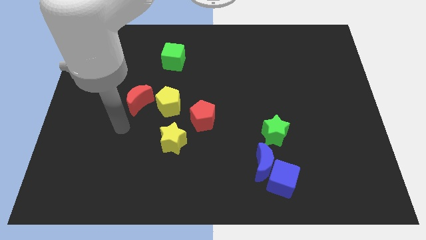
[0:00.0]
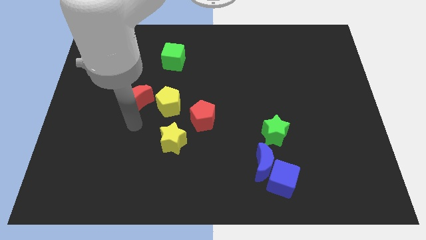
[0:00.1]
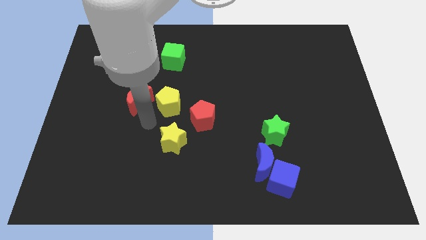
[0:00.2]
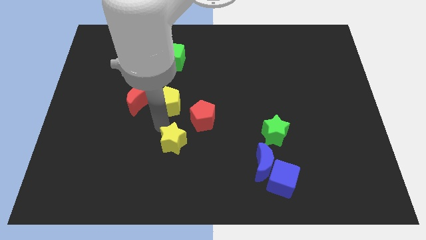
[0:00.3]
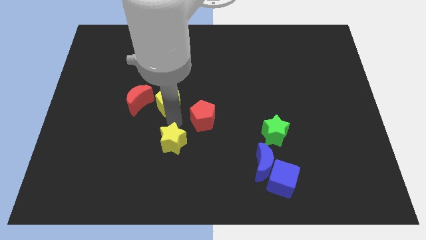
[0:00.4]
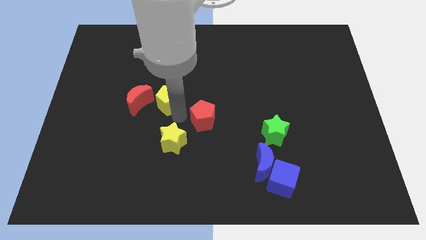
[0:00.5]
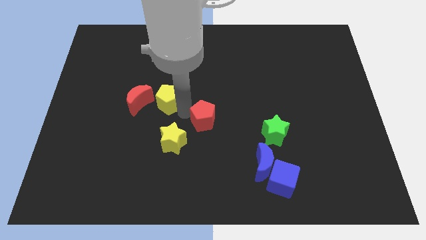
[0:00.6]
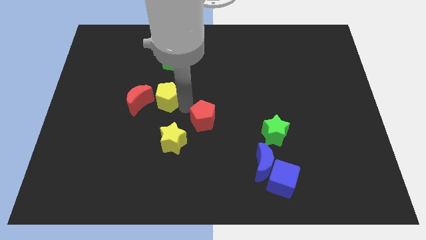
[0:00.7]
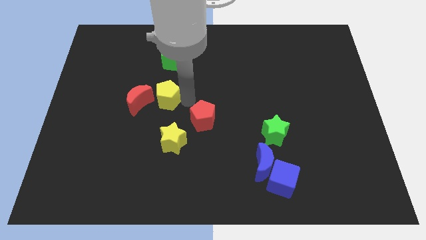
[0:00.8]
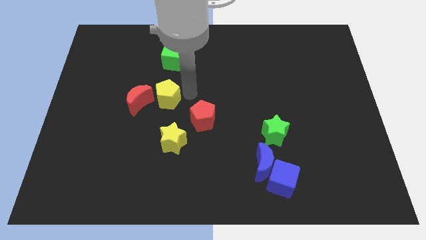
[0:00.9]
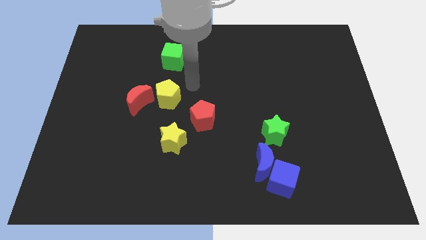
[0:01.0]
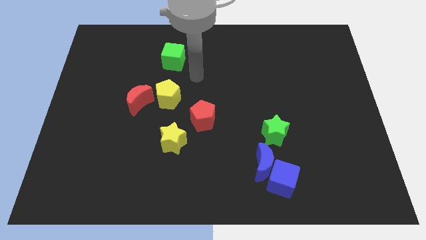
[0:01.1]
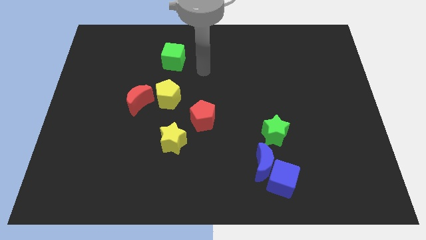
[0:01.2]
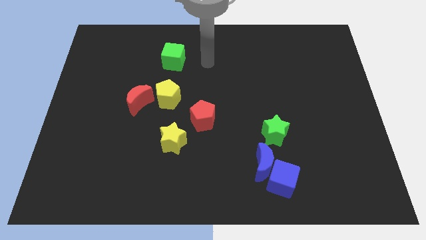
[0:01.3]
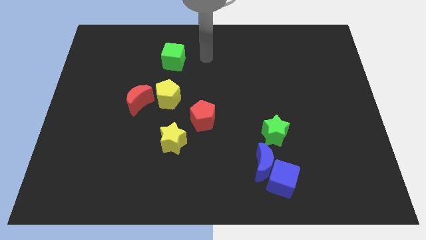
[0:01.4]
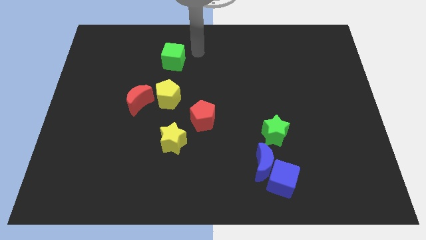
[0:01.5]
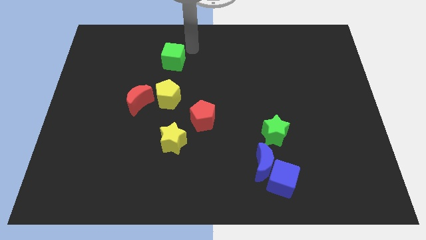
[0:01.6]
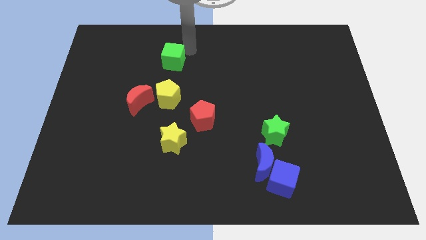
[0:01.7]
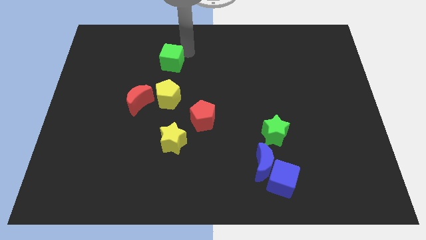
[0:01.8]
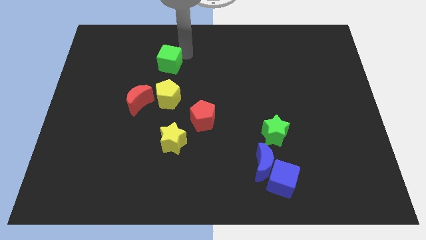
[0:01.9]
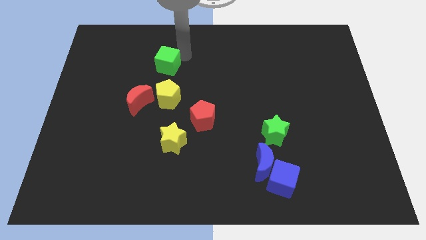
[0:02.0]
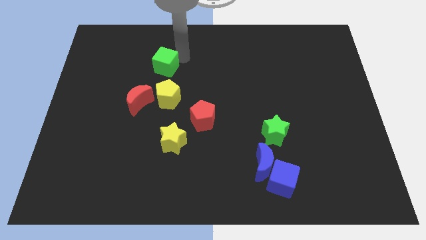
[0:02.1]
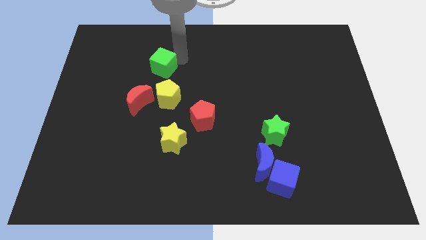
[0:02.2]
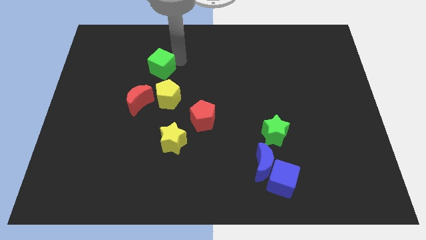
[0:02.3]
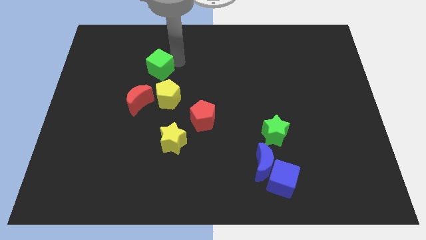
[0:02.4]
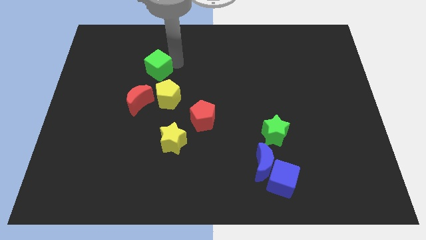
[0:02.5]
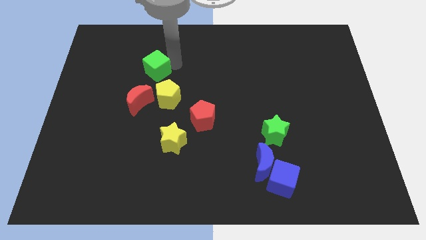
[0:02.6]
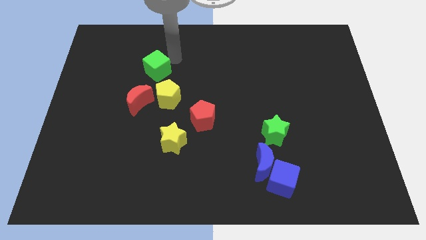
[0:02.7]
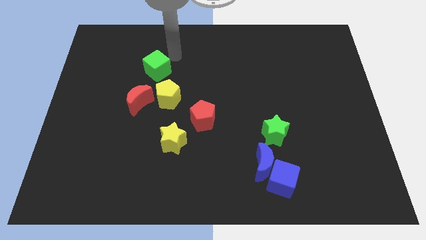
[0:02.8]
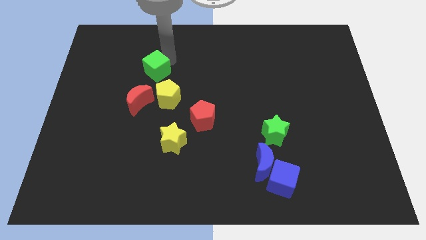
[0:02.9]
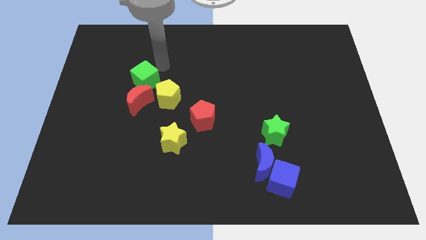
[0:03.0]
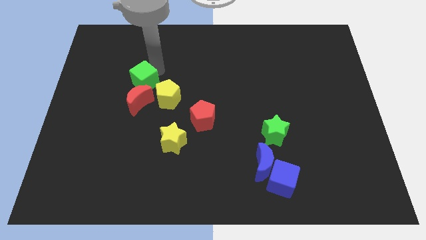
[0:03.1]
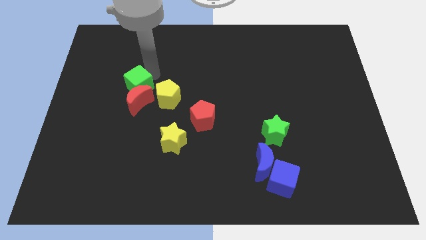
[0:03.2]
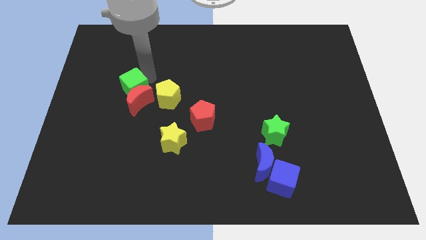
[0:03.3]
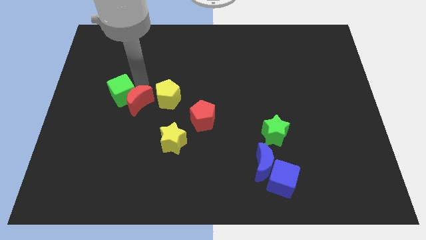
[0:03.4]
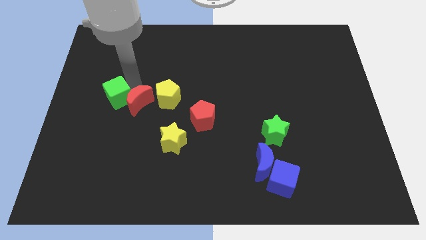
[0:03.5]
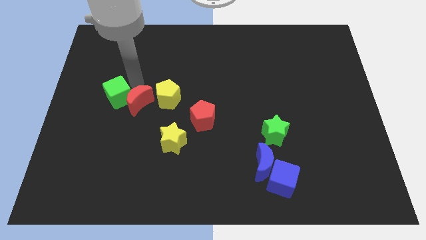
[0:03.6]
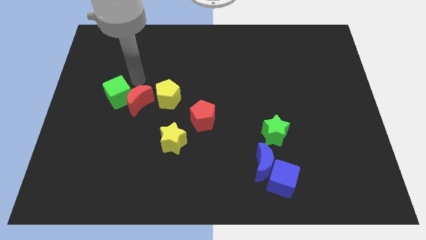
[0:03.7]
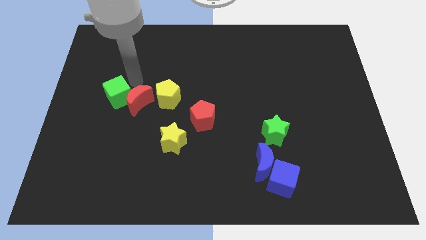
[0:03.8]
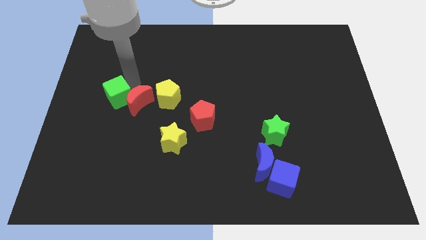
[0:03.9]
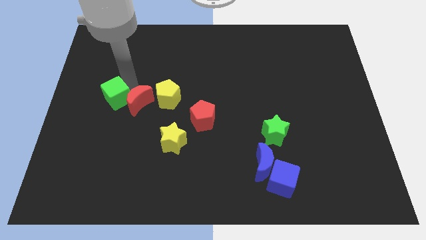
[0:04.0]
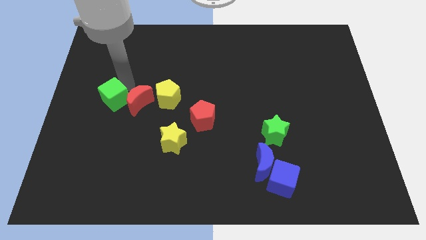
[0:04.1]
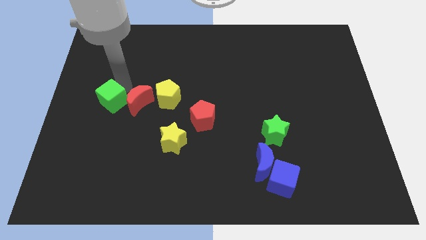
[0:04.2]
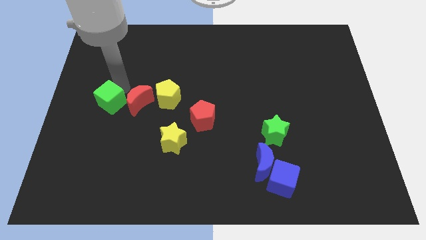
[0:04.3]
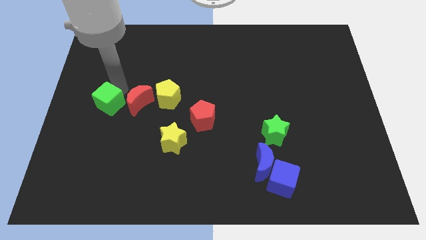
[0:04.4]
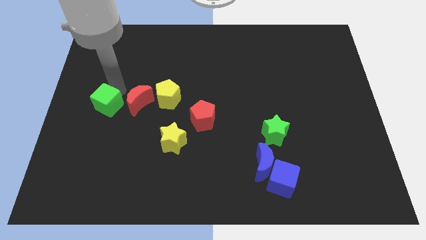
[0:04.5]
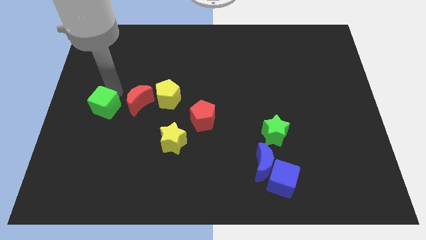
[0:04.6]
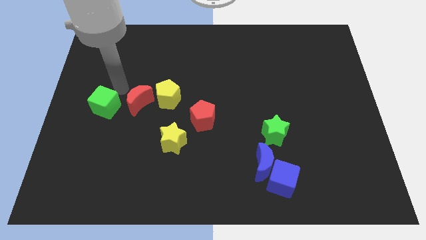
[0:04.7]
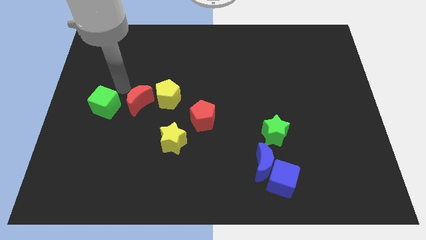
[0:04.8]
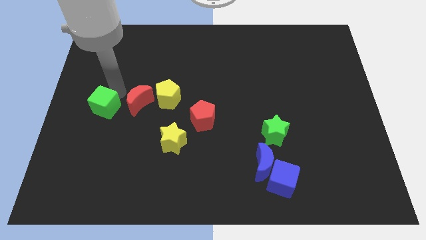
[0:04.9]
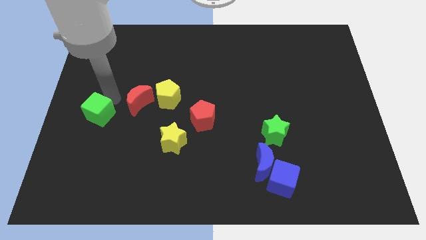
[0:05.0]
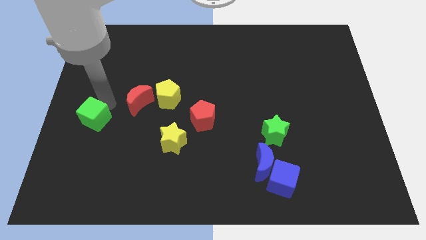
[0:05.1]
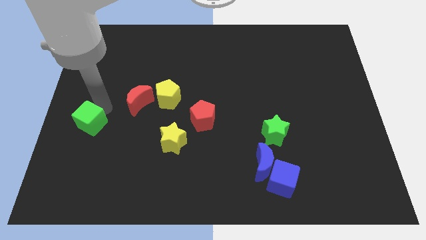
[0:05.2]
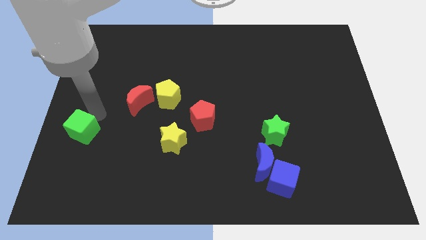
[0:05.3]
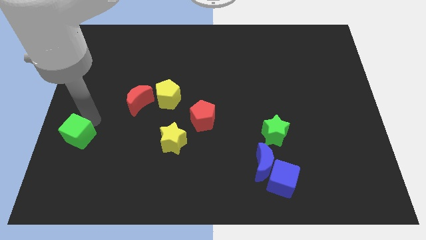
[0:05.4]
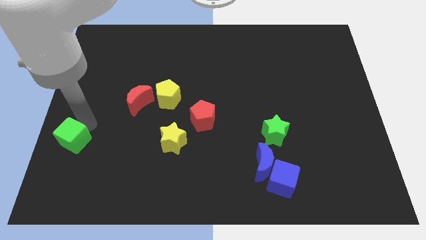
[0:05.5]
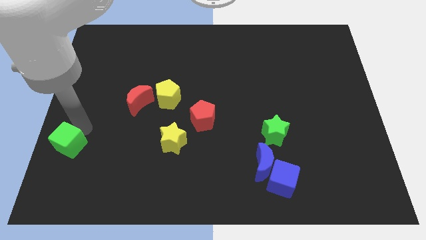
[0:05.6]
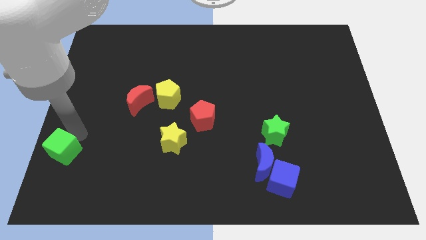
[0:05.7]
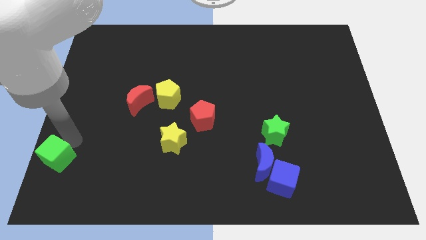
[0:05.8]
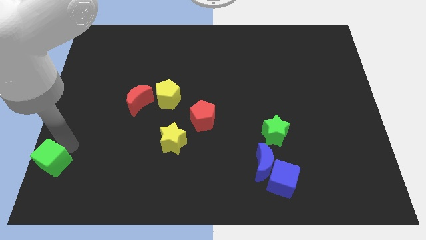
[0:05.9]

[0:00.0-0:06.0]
move the green cube to the bottom left of the board

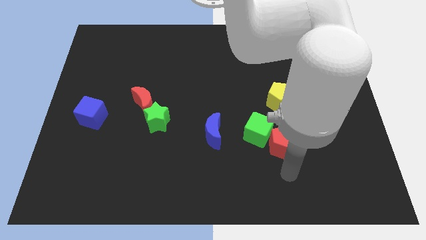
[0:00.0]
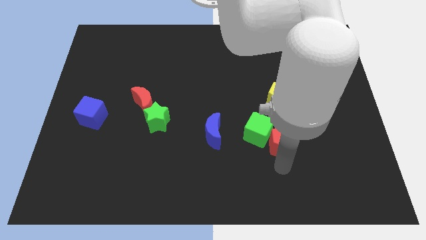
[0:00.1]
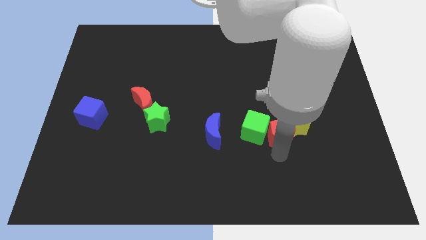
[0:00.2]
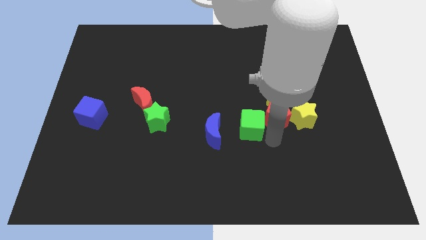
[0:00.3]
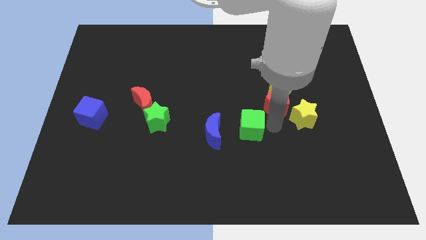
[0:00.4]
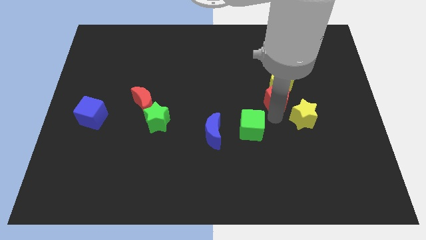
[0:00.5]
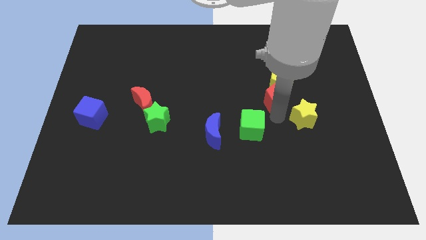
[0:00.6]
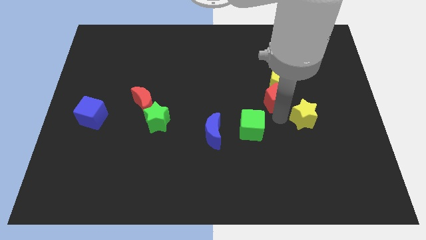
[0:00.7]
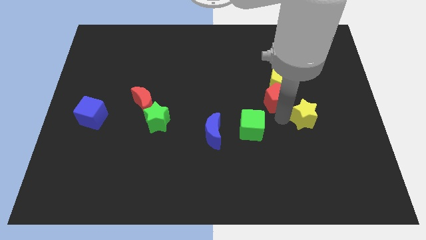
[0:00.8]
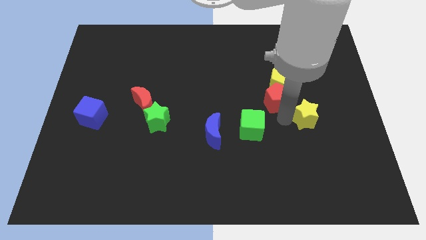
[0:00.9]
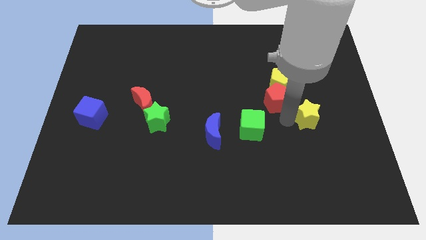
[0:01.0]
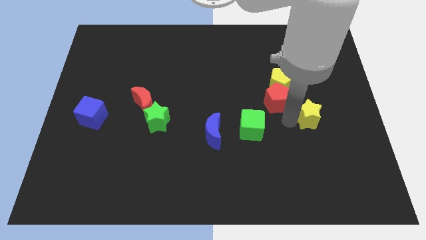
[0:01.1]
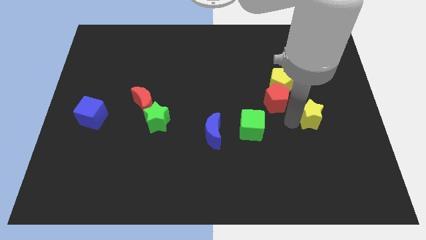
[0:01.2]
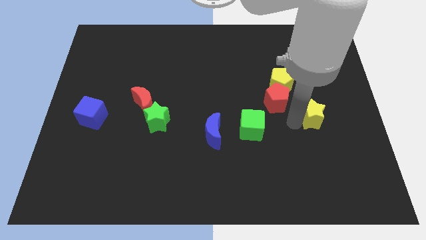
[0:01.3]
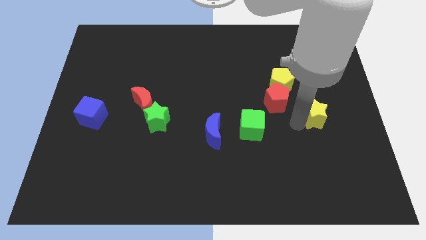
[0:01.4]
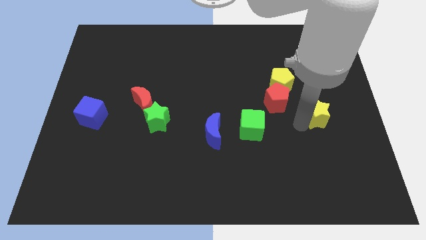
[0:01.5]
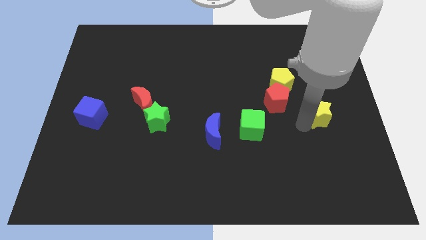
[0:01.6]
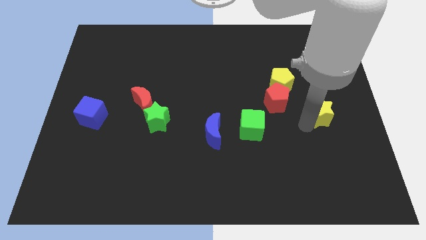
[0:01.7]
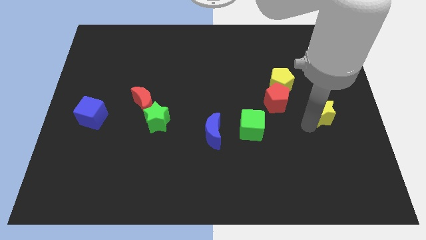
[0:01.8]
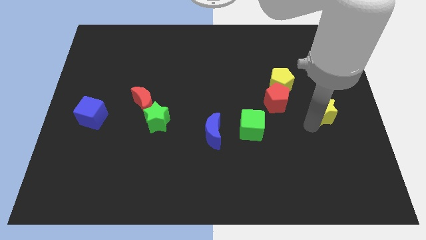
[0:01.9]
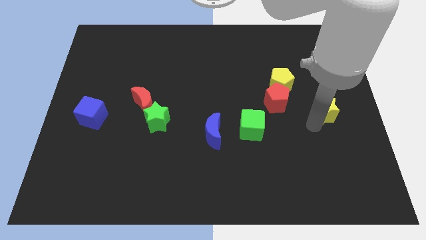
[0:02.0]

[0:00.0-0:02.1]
slide the yellow star to the center right
